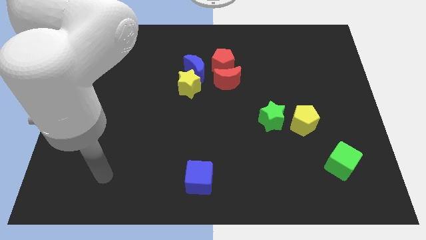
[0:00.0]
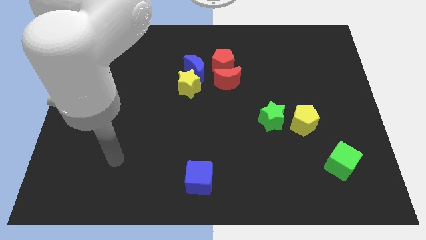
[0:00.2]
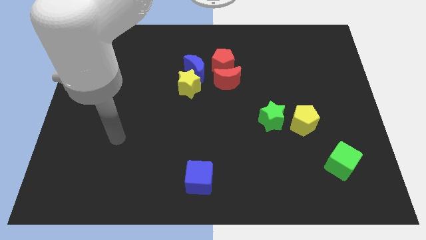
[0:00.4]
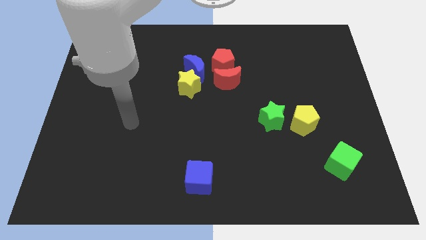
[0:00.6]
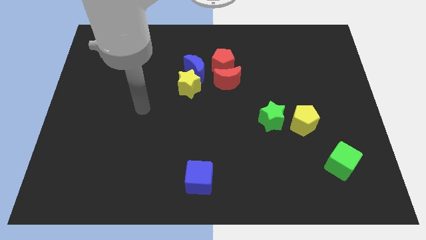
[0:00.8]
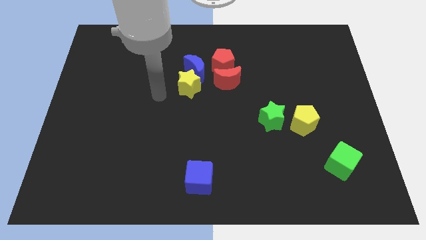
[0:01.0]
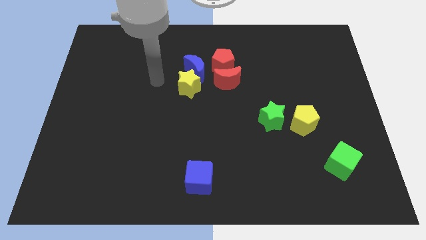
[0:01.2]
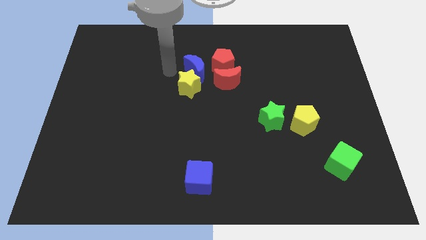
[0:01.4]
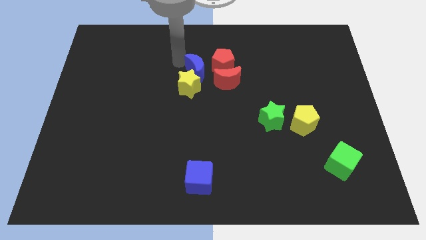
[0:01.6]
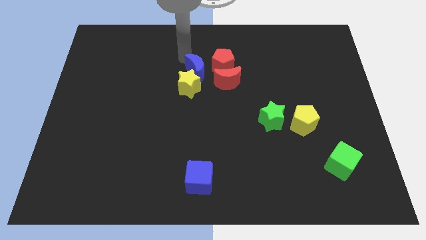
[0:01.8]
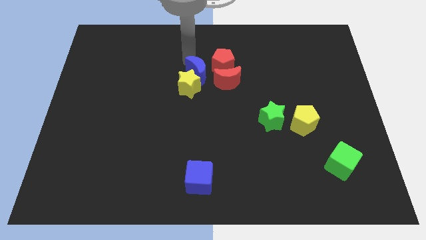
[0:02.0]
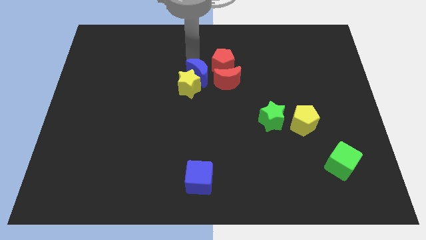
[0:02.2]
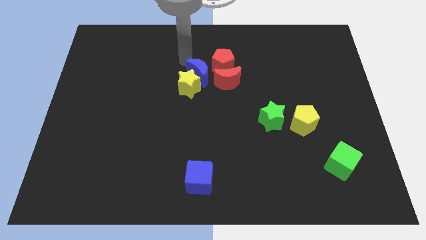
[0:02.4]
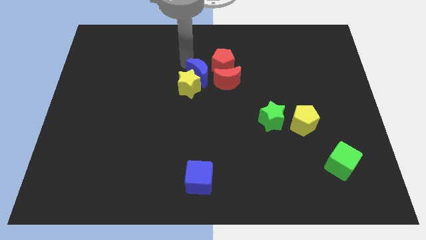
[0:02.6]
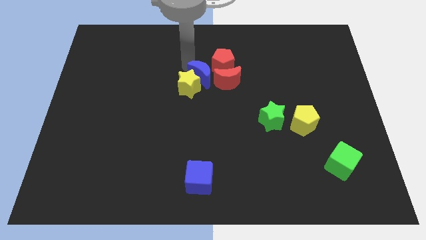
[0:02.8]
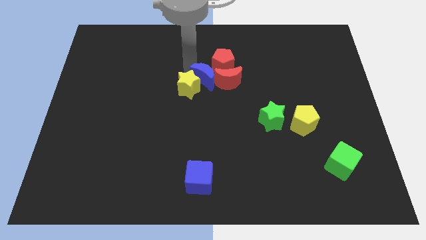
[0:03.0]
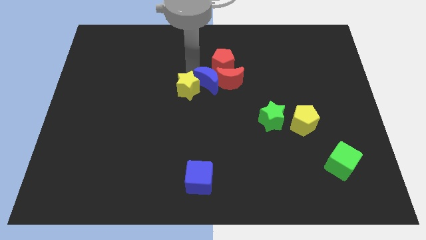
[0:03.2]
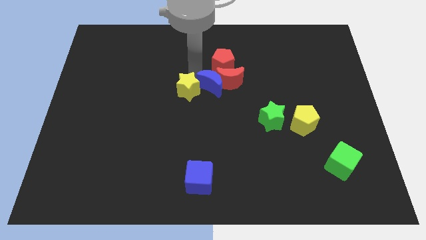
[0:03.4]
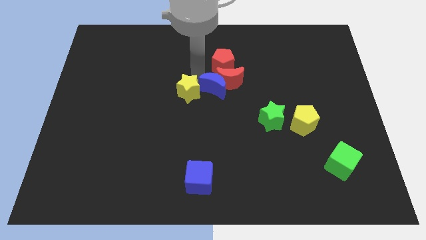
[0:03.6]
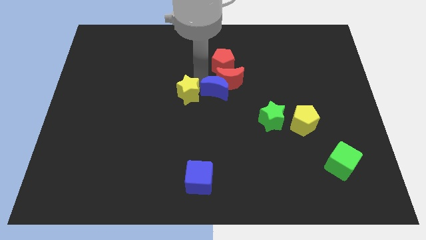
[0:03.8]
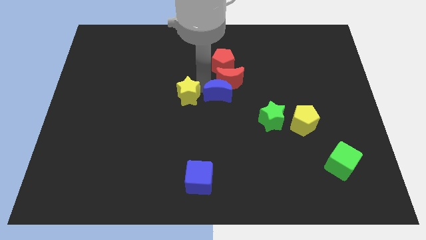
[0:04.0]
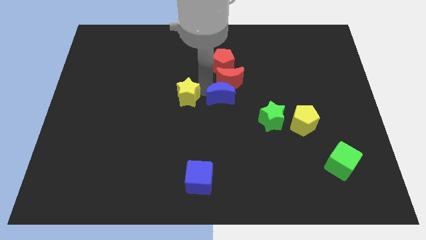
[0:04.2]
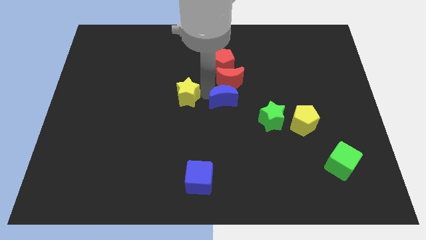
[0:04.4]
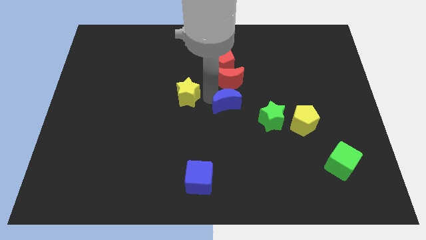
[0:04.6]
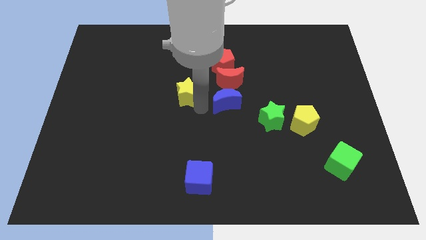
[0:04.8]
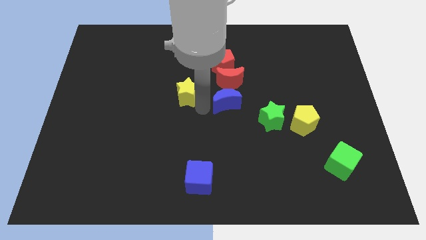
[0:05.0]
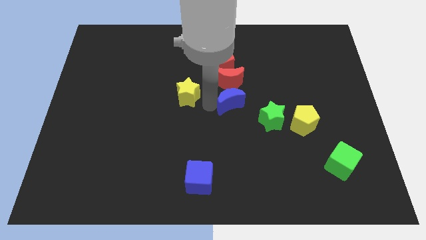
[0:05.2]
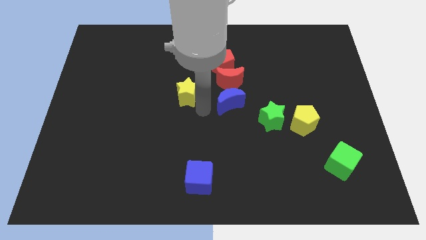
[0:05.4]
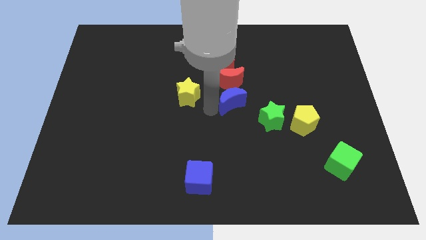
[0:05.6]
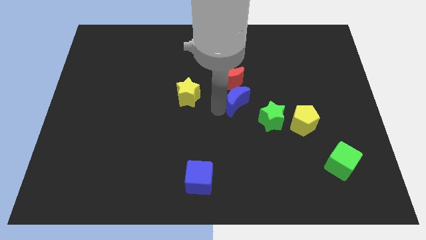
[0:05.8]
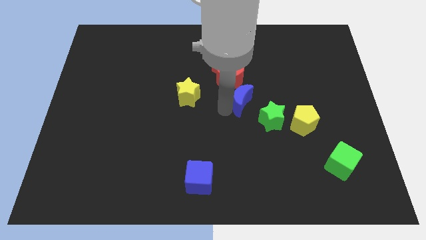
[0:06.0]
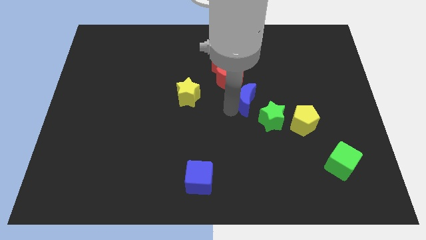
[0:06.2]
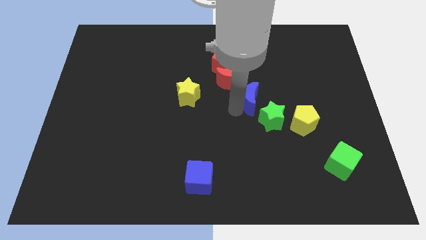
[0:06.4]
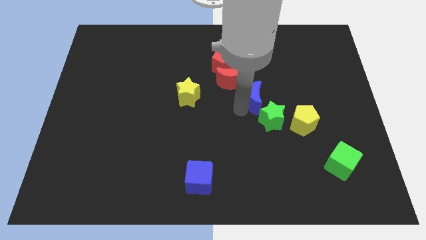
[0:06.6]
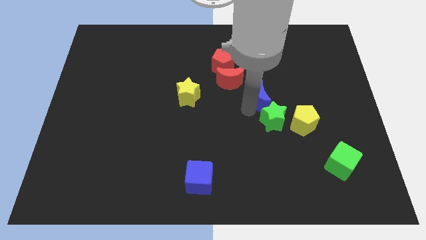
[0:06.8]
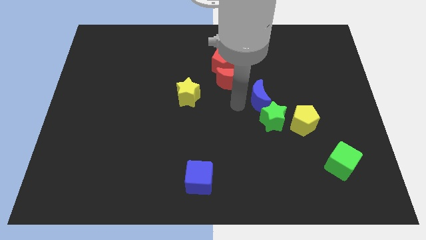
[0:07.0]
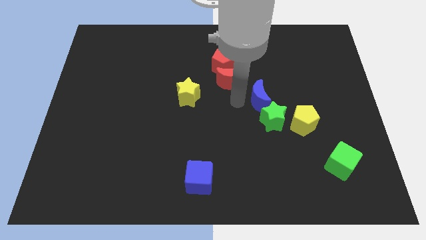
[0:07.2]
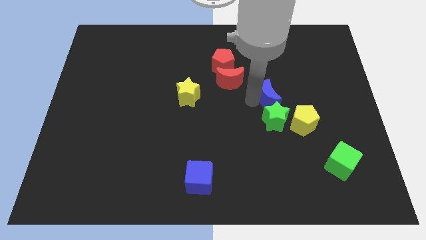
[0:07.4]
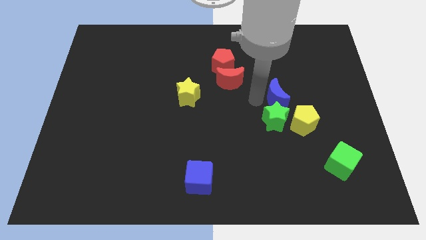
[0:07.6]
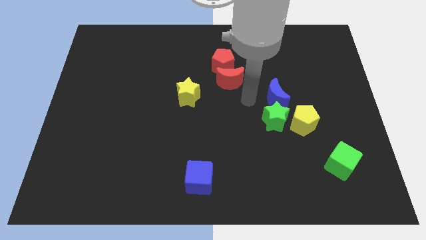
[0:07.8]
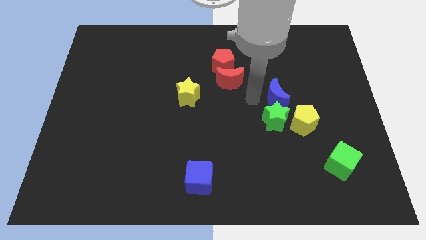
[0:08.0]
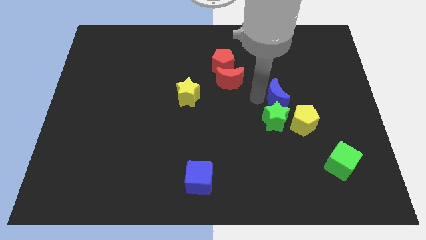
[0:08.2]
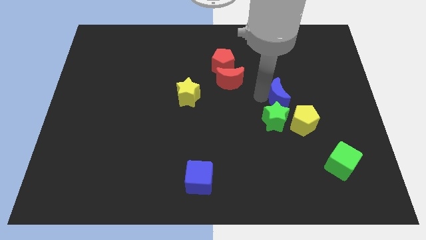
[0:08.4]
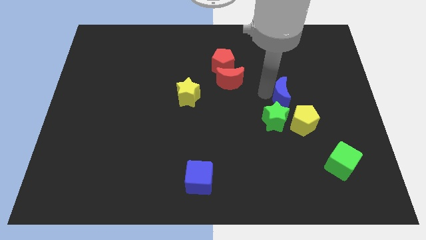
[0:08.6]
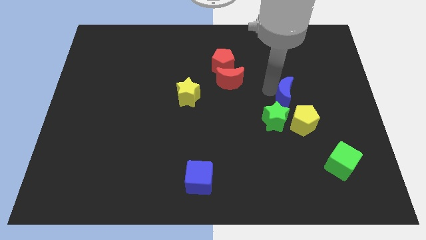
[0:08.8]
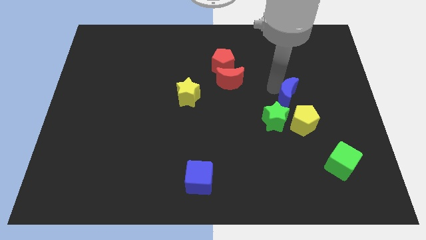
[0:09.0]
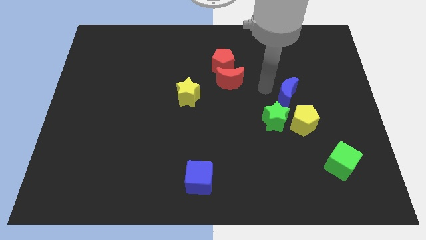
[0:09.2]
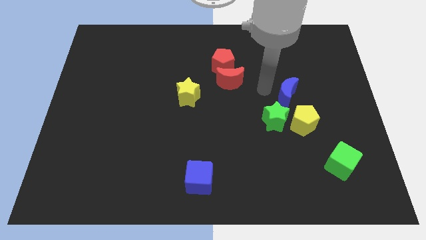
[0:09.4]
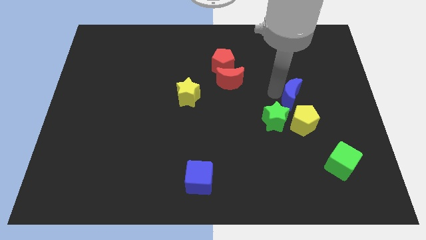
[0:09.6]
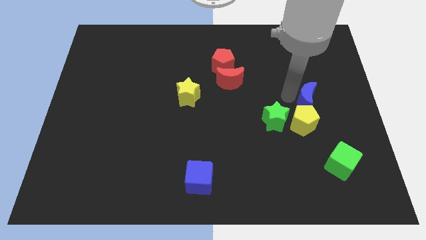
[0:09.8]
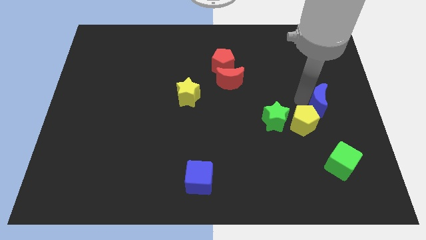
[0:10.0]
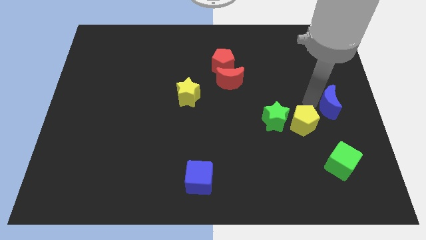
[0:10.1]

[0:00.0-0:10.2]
move the blue moon to the right side of the board

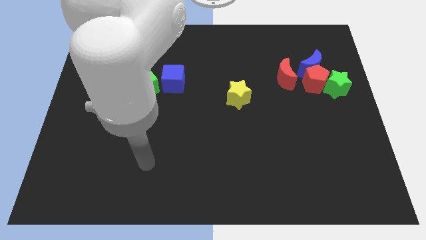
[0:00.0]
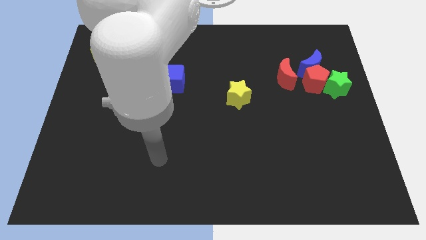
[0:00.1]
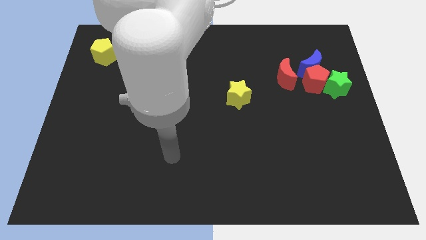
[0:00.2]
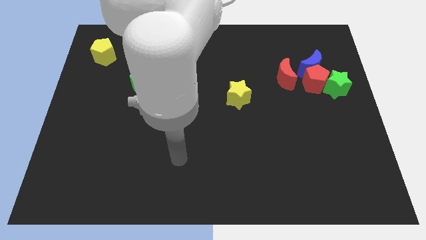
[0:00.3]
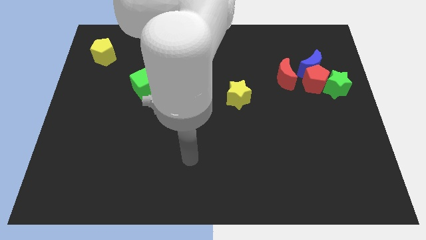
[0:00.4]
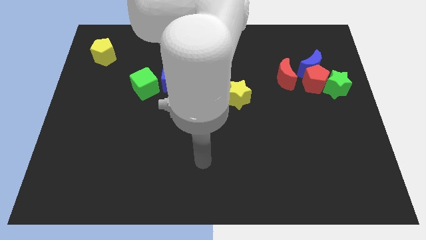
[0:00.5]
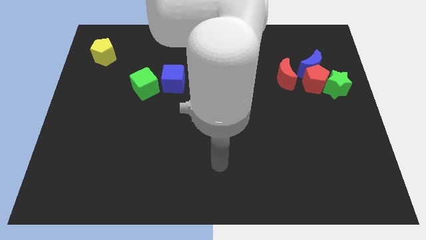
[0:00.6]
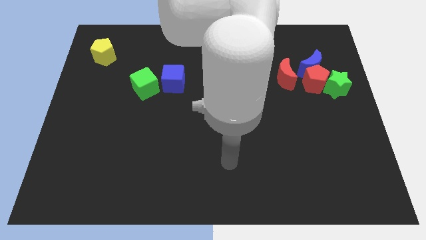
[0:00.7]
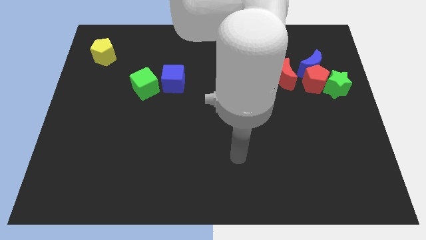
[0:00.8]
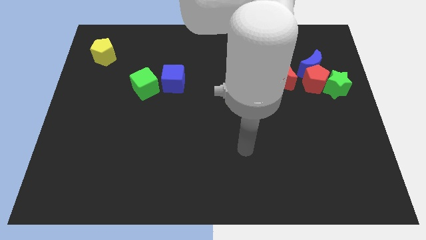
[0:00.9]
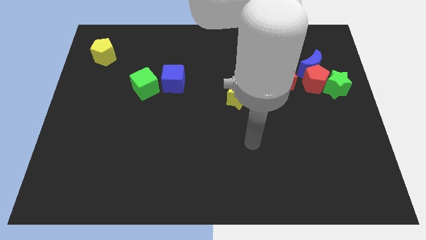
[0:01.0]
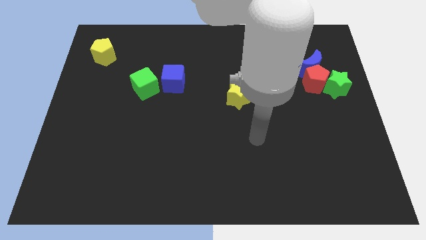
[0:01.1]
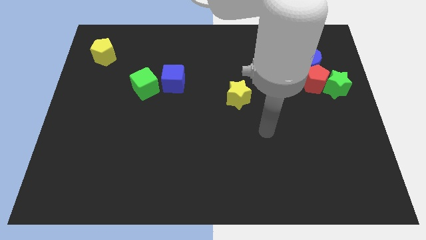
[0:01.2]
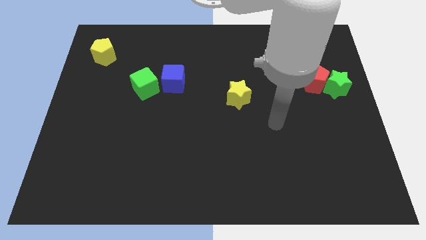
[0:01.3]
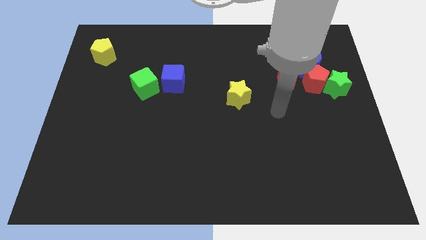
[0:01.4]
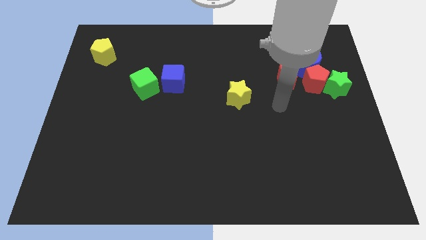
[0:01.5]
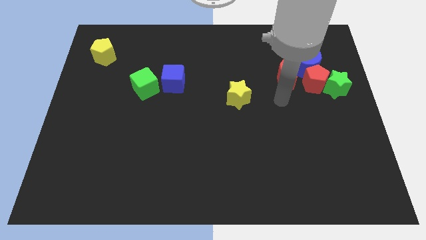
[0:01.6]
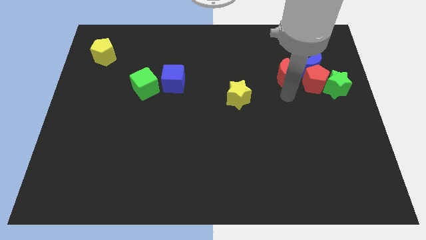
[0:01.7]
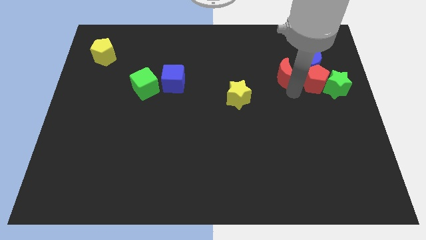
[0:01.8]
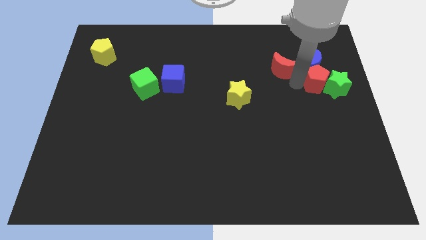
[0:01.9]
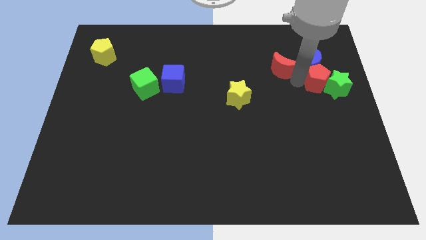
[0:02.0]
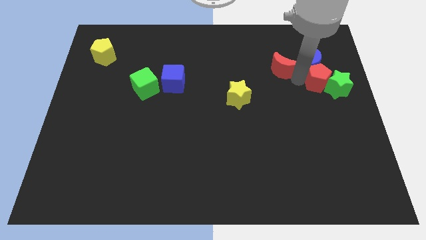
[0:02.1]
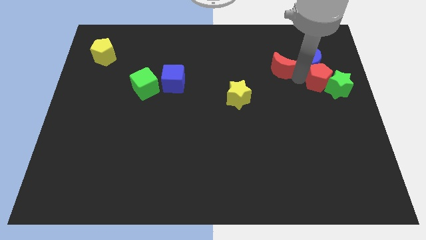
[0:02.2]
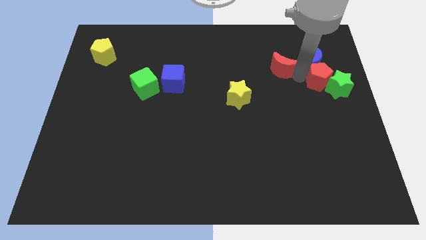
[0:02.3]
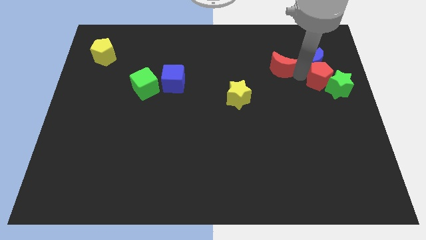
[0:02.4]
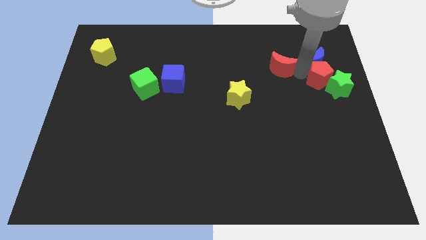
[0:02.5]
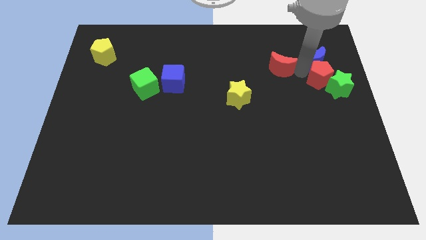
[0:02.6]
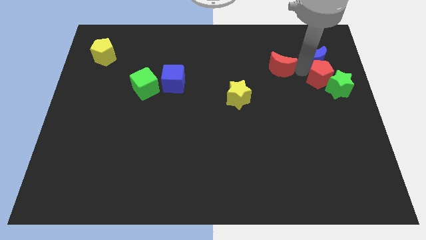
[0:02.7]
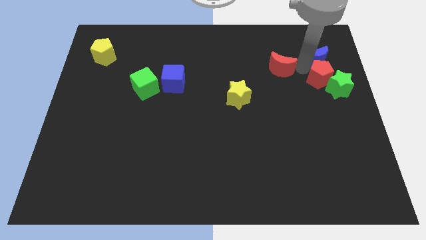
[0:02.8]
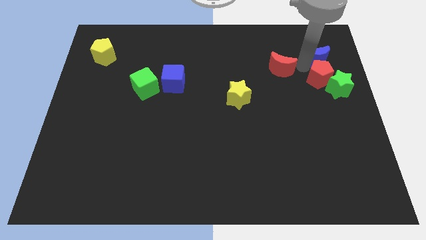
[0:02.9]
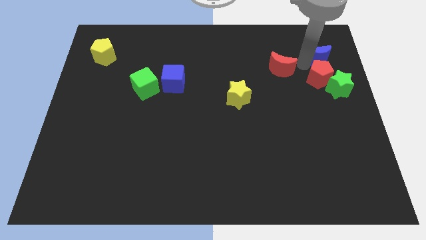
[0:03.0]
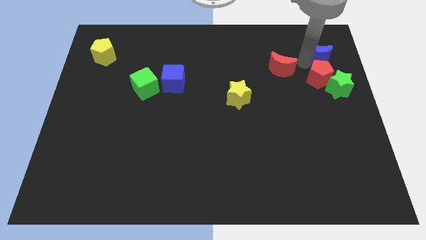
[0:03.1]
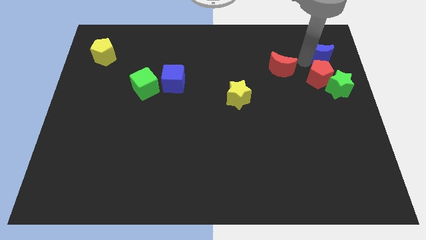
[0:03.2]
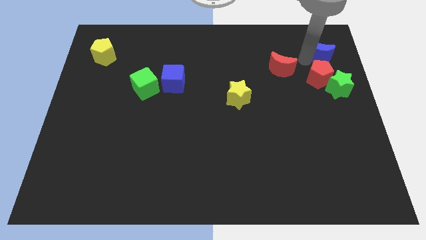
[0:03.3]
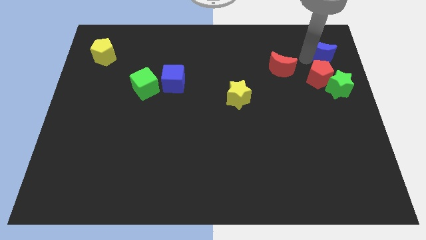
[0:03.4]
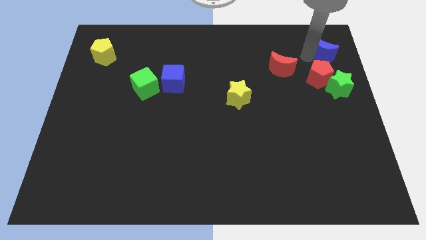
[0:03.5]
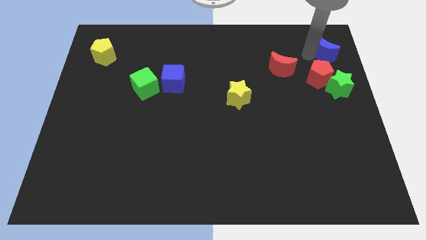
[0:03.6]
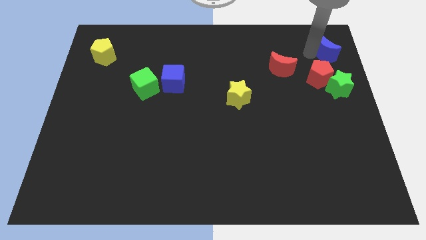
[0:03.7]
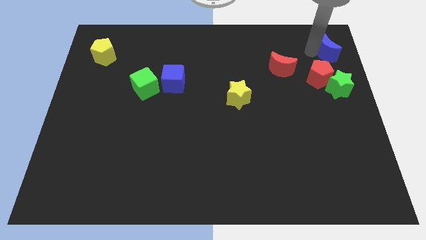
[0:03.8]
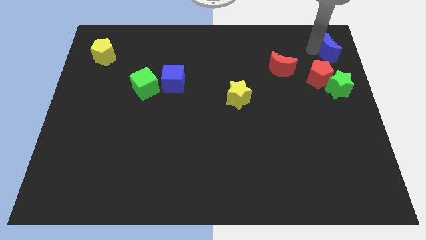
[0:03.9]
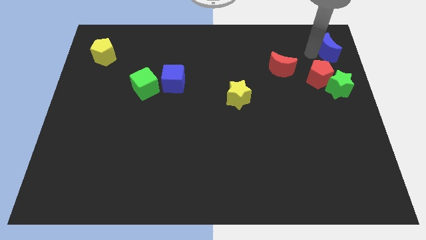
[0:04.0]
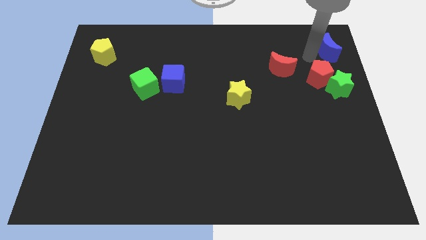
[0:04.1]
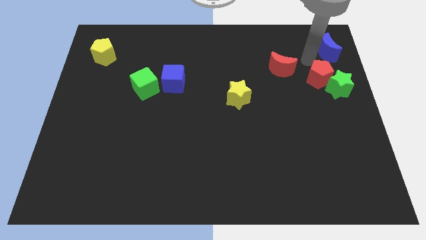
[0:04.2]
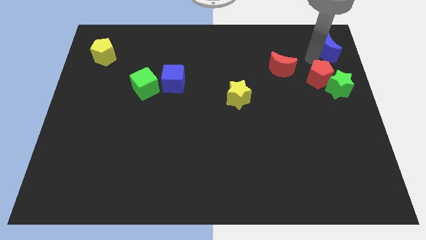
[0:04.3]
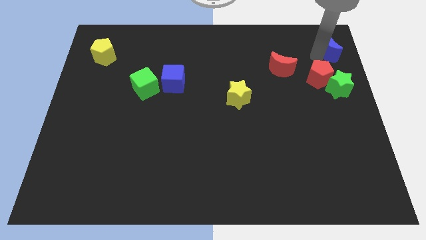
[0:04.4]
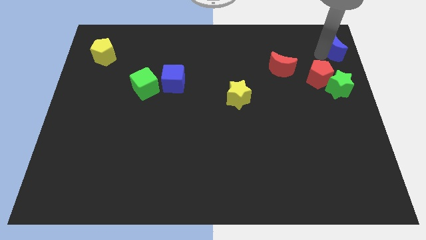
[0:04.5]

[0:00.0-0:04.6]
push the blue moon to the top right of the board
